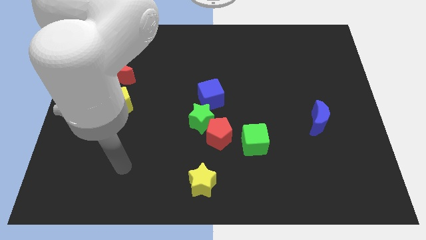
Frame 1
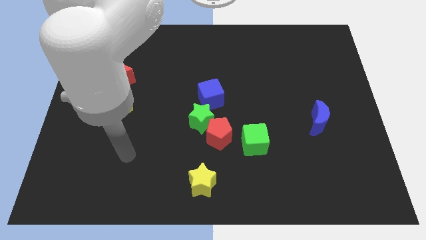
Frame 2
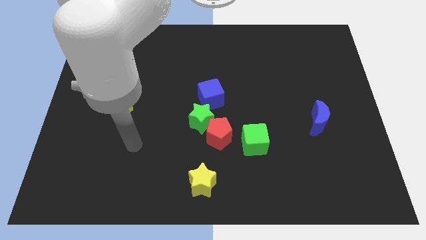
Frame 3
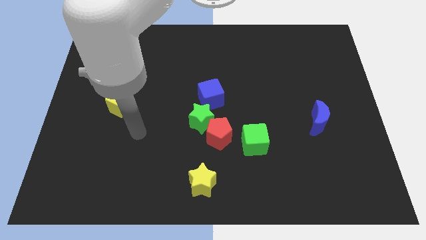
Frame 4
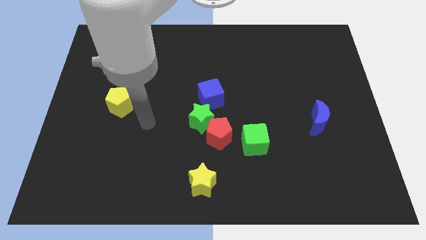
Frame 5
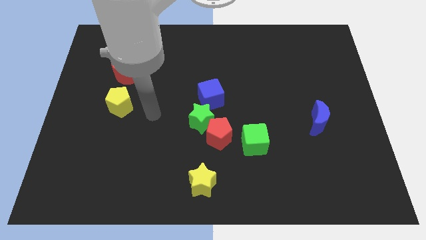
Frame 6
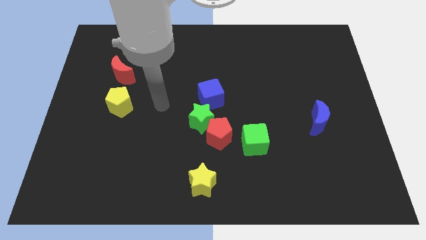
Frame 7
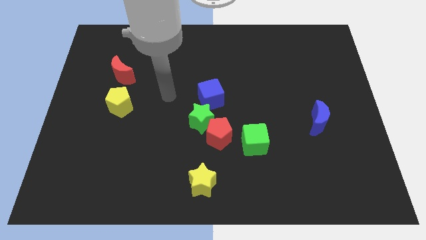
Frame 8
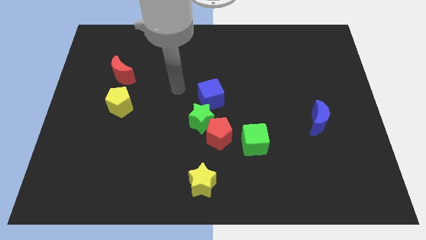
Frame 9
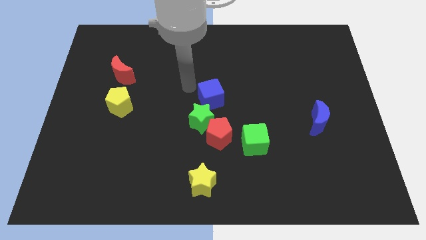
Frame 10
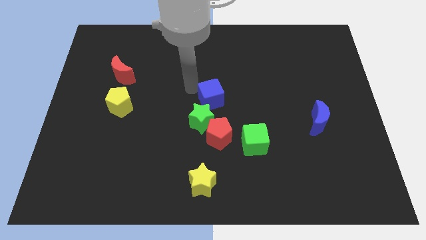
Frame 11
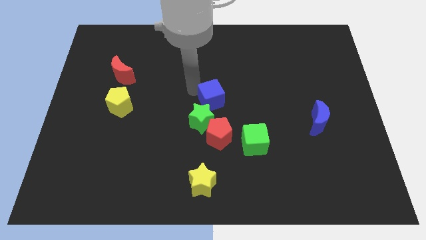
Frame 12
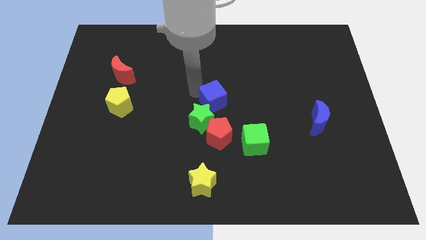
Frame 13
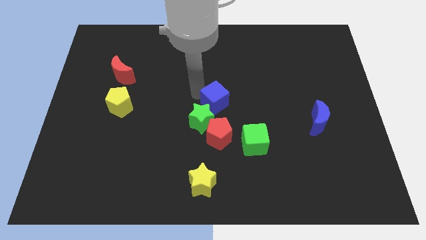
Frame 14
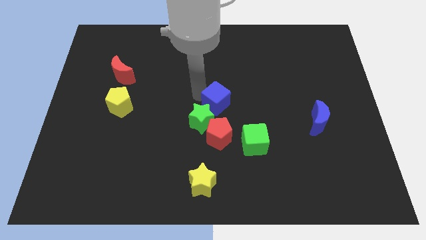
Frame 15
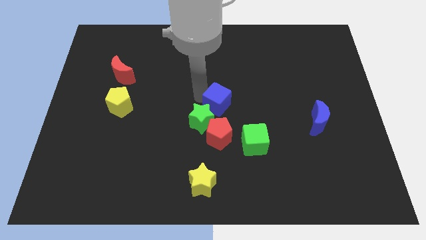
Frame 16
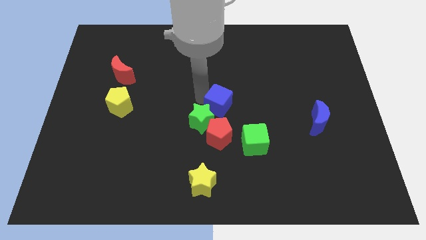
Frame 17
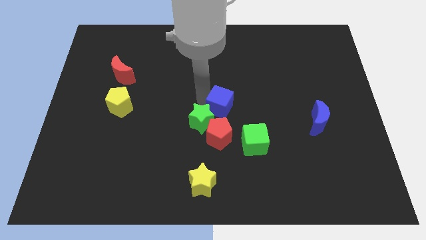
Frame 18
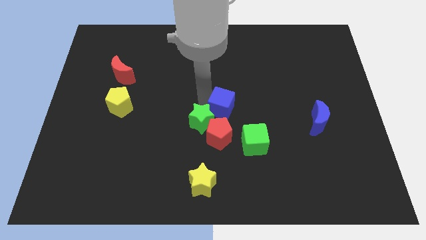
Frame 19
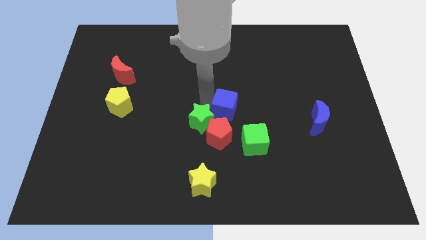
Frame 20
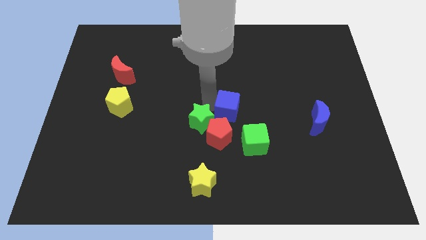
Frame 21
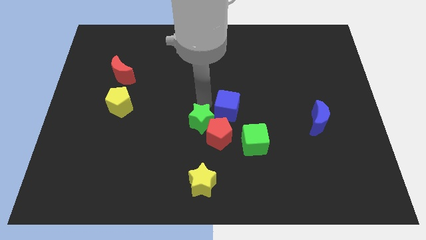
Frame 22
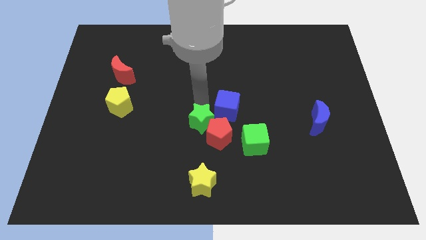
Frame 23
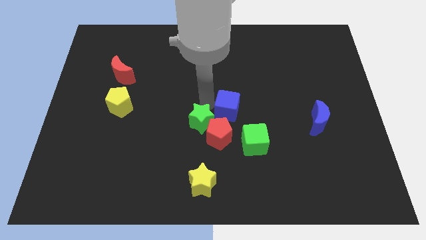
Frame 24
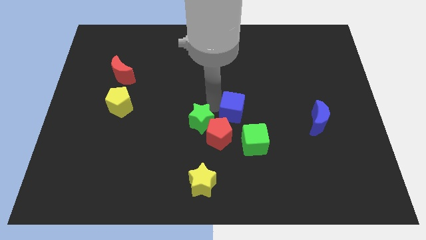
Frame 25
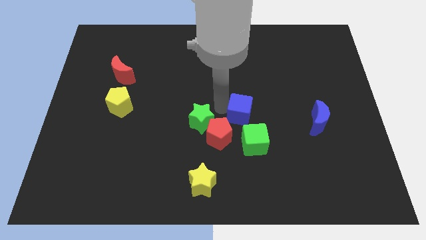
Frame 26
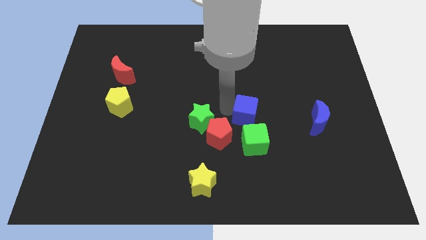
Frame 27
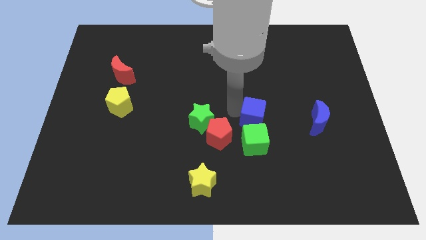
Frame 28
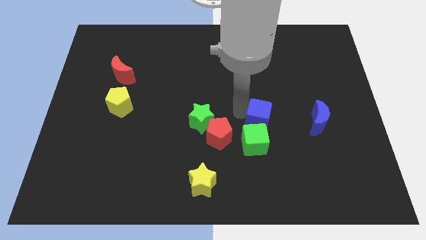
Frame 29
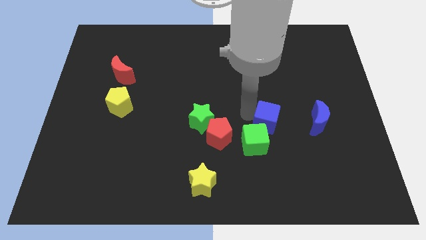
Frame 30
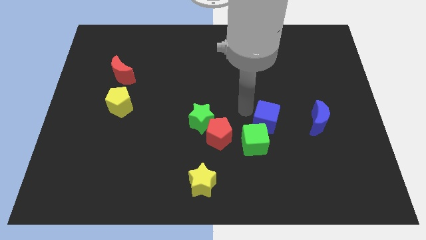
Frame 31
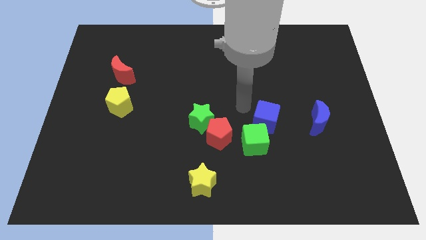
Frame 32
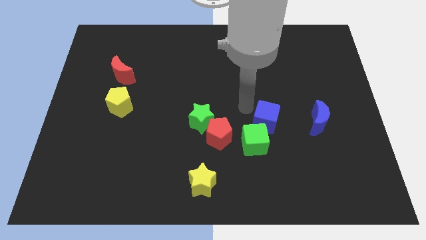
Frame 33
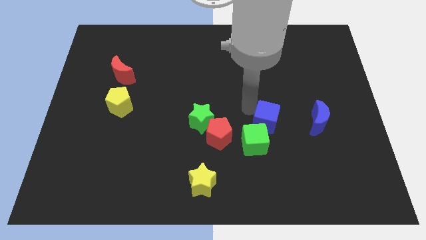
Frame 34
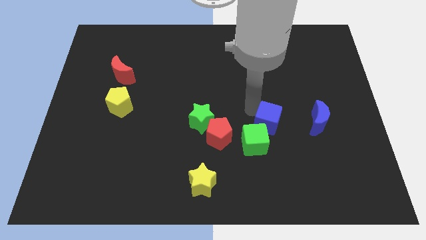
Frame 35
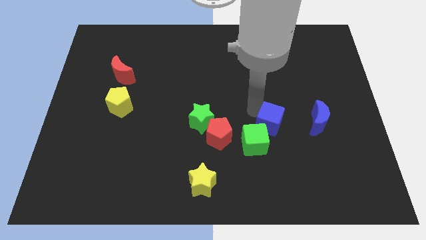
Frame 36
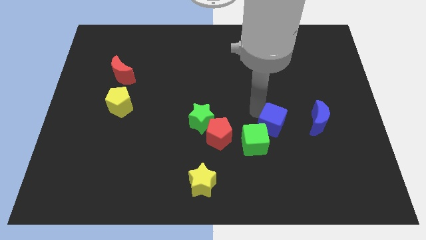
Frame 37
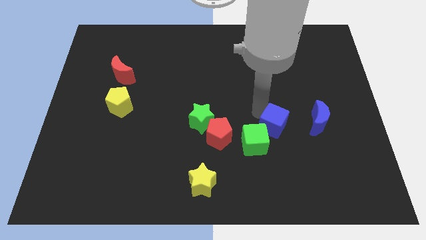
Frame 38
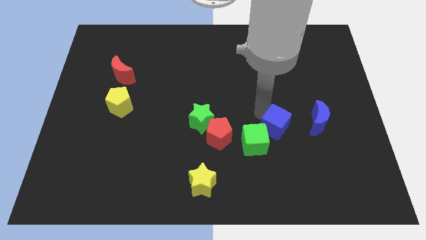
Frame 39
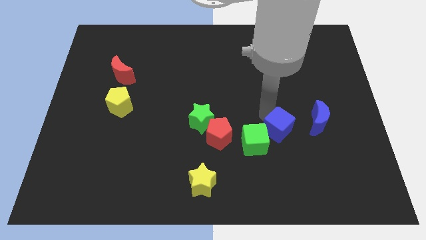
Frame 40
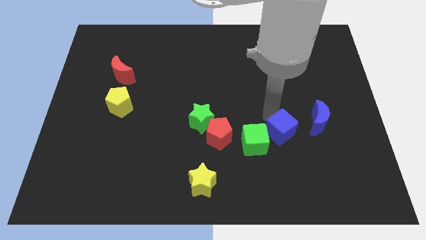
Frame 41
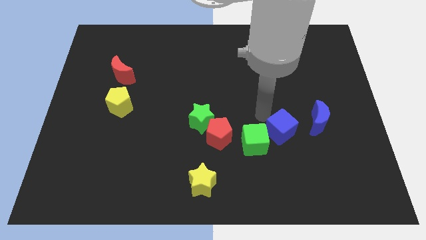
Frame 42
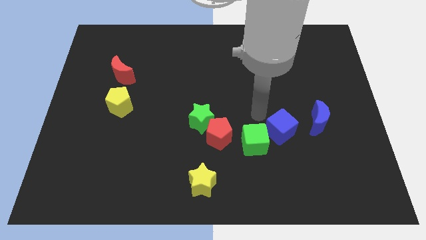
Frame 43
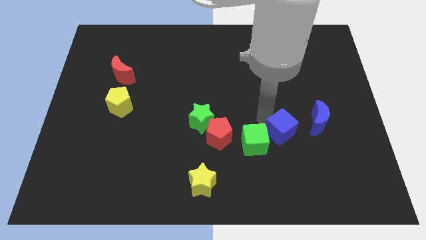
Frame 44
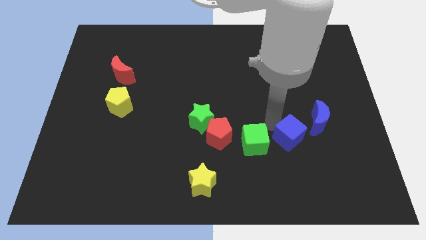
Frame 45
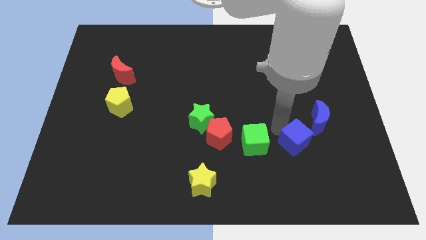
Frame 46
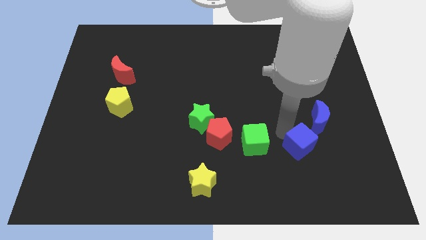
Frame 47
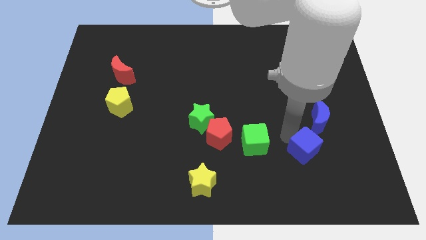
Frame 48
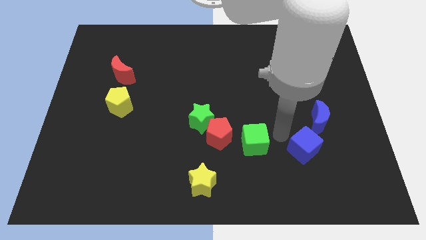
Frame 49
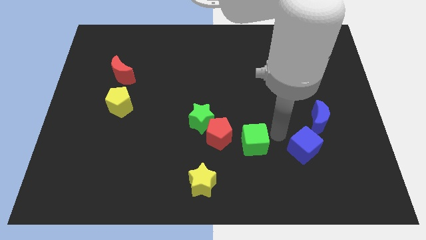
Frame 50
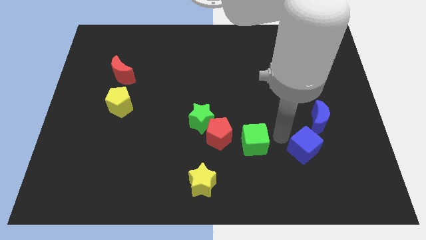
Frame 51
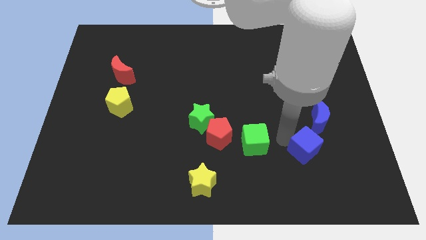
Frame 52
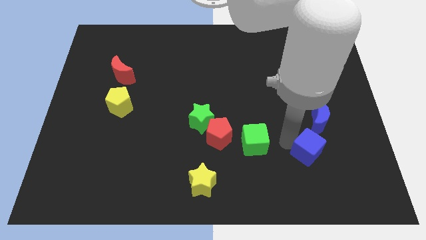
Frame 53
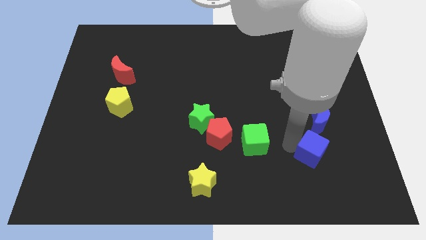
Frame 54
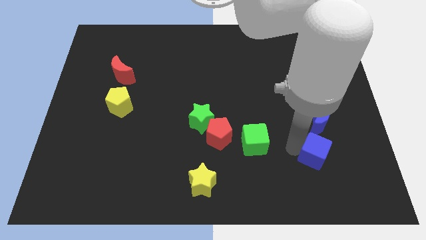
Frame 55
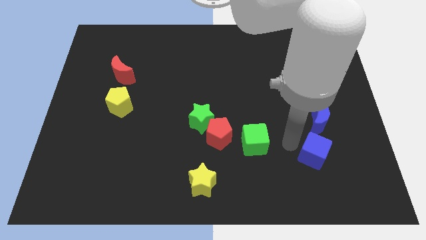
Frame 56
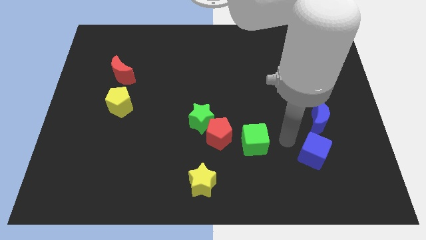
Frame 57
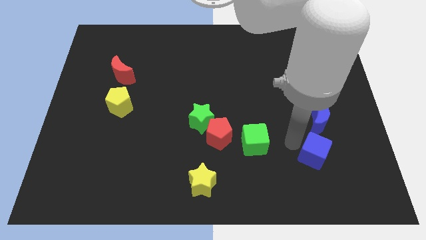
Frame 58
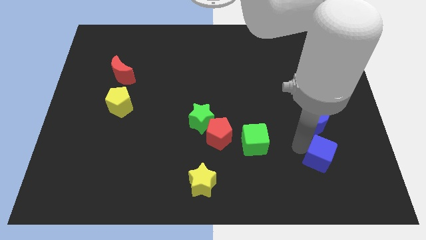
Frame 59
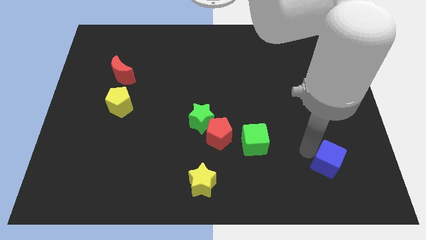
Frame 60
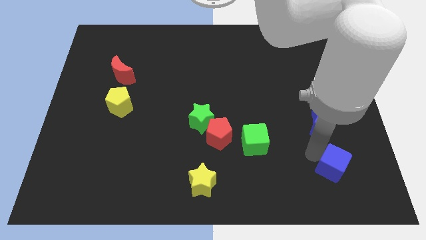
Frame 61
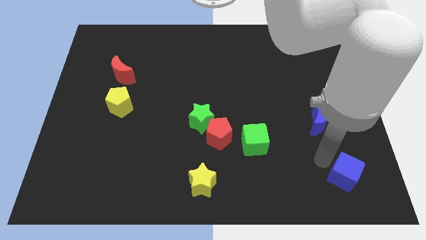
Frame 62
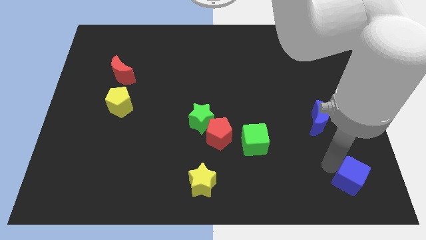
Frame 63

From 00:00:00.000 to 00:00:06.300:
put the blue cube to the bottom right corner
